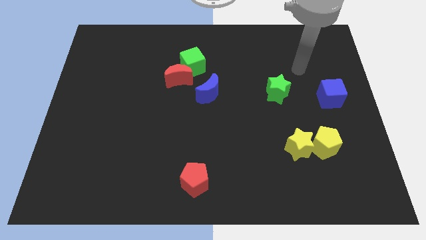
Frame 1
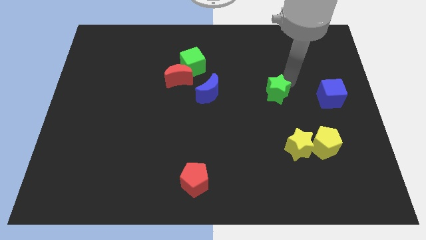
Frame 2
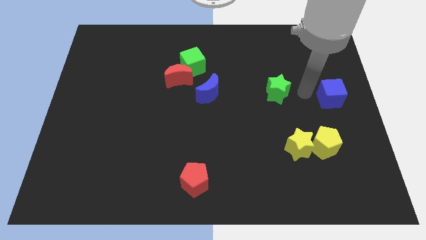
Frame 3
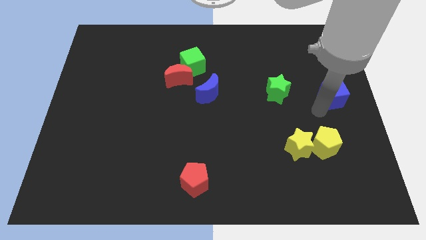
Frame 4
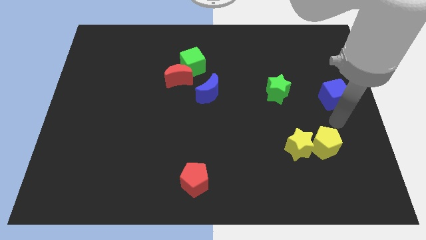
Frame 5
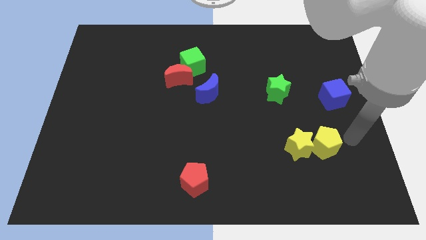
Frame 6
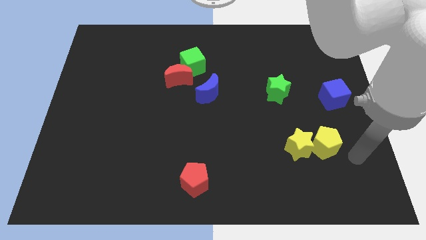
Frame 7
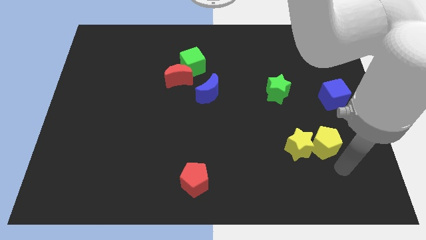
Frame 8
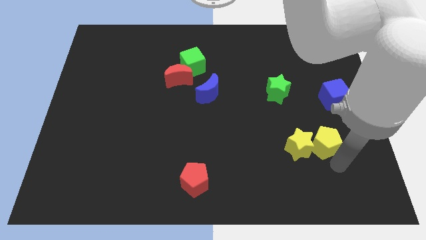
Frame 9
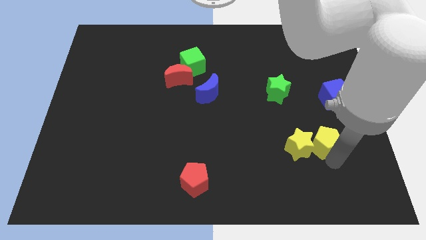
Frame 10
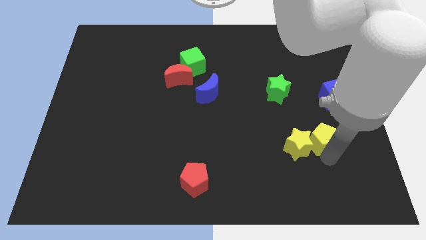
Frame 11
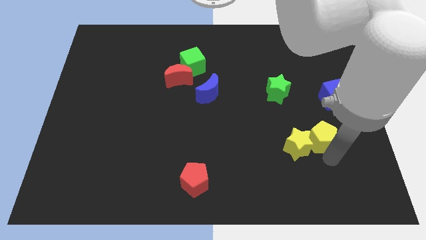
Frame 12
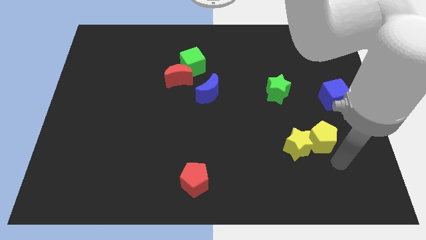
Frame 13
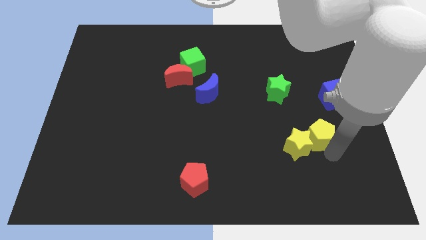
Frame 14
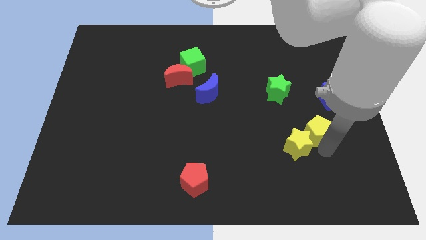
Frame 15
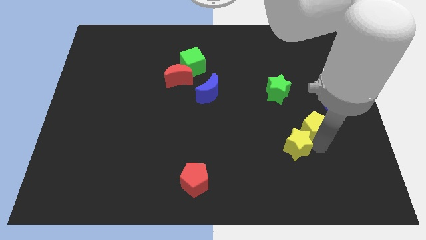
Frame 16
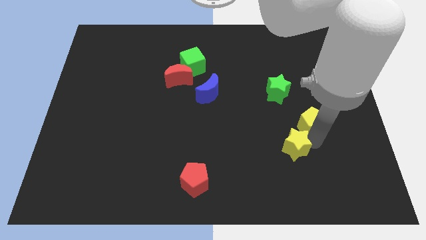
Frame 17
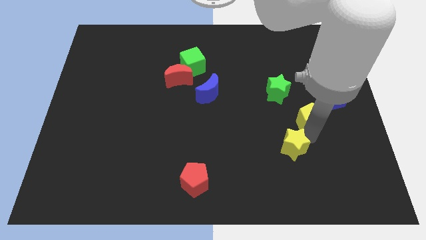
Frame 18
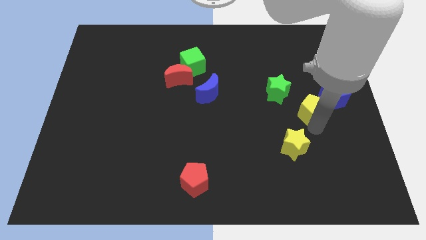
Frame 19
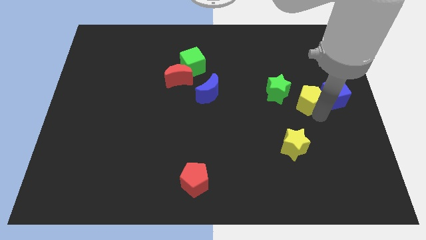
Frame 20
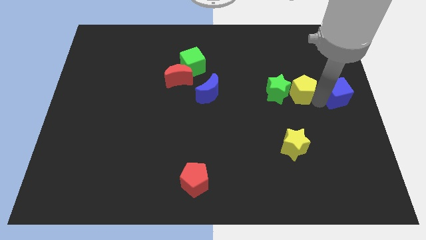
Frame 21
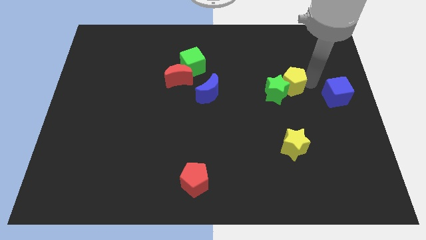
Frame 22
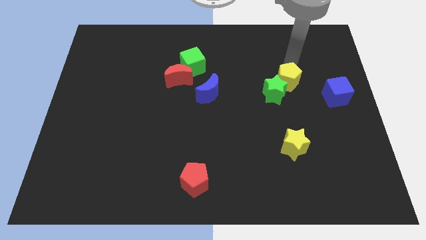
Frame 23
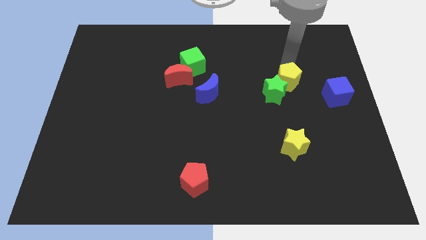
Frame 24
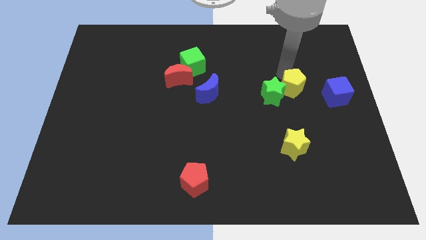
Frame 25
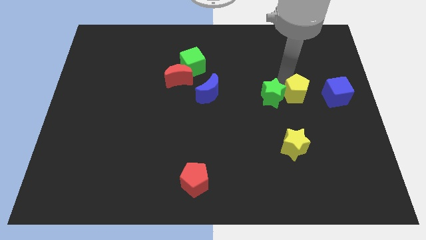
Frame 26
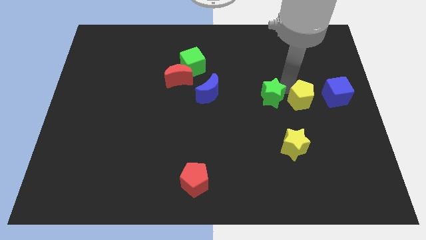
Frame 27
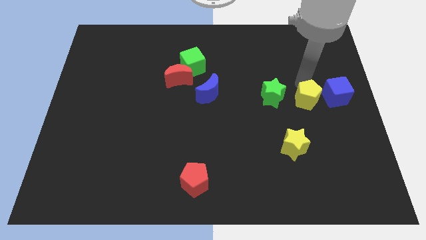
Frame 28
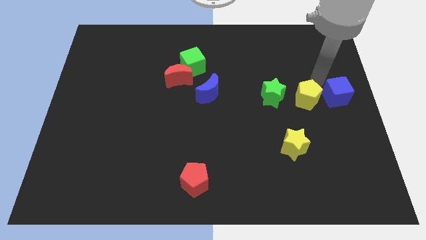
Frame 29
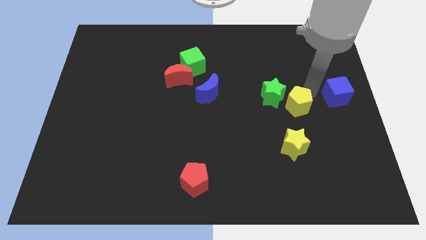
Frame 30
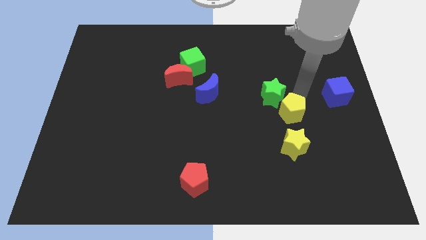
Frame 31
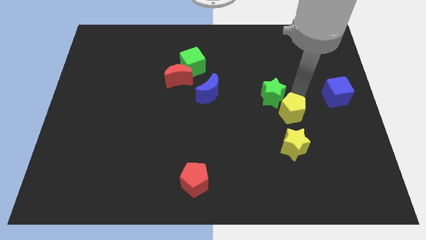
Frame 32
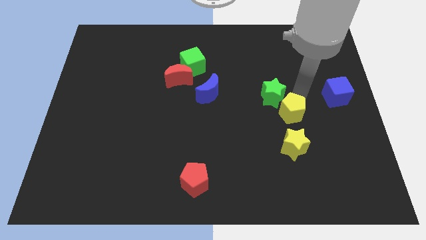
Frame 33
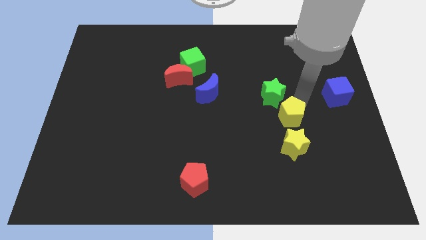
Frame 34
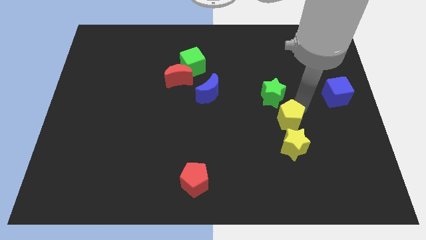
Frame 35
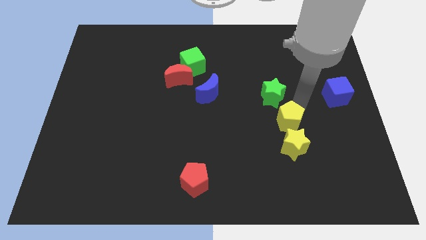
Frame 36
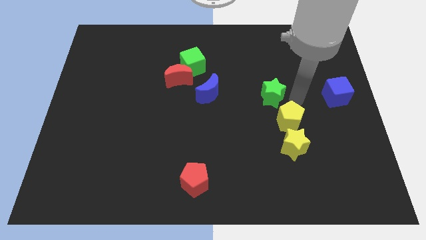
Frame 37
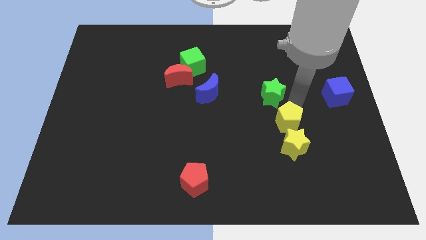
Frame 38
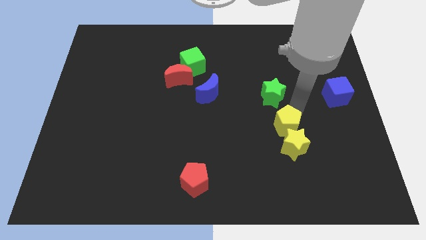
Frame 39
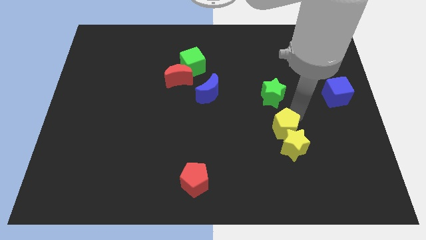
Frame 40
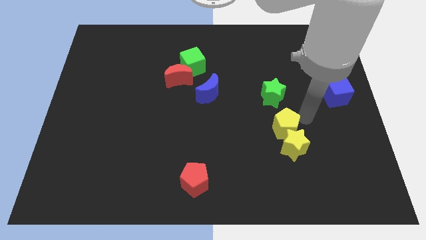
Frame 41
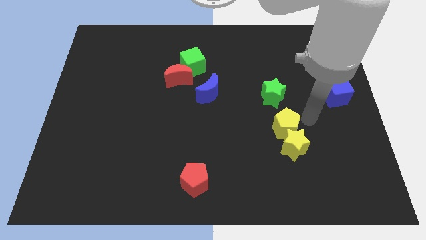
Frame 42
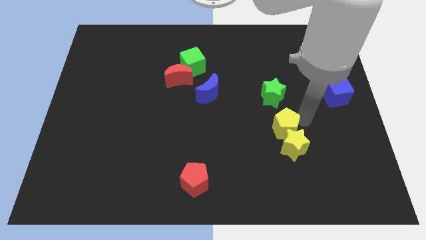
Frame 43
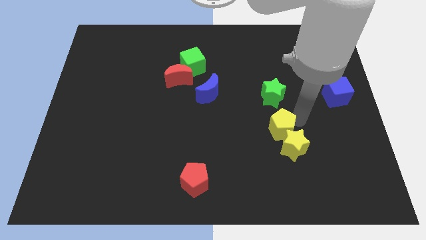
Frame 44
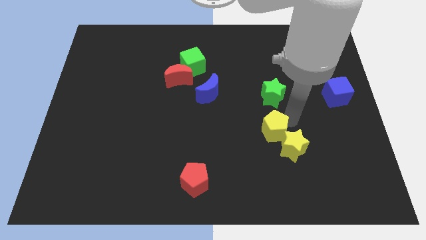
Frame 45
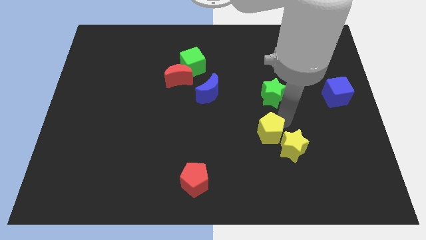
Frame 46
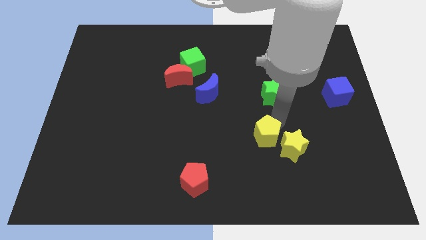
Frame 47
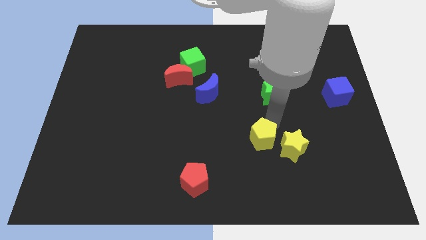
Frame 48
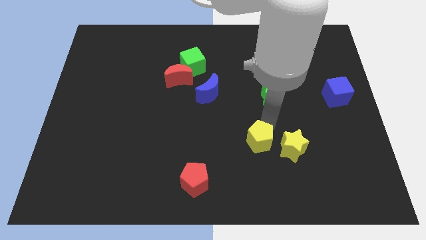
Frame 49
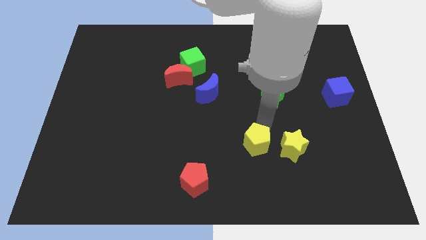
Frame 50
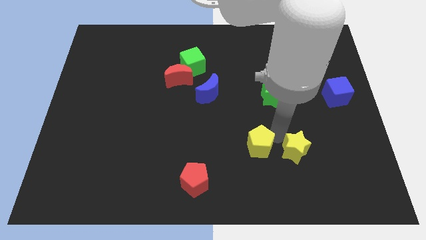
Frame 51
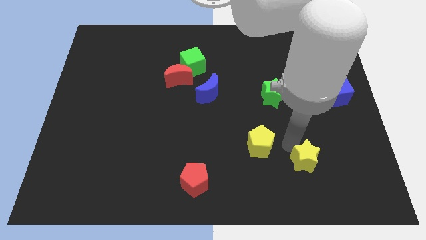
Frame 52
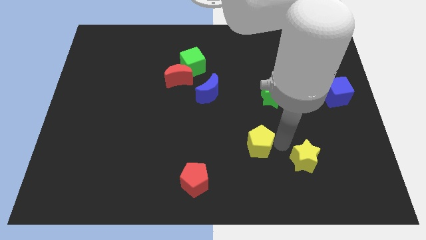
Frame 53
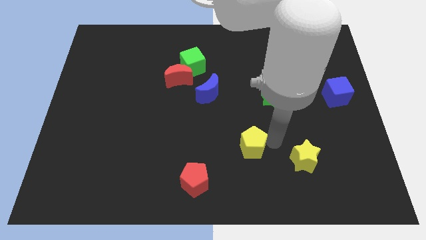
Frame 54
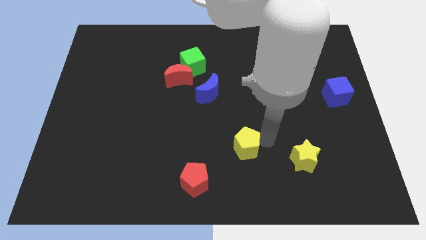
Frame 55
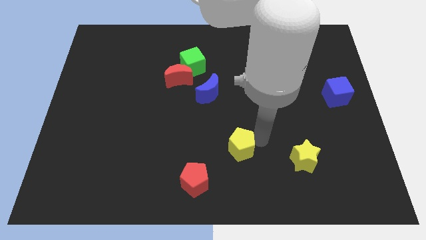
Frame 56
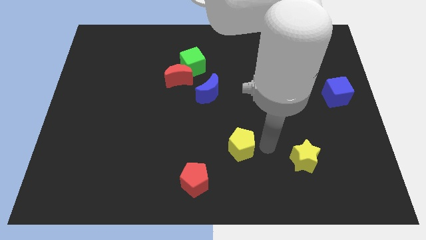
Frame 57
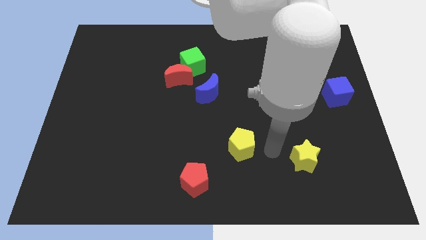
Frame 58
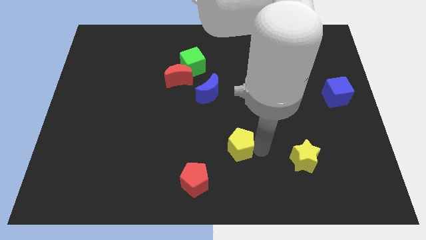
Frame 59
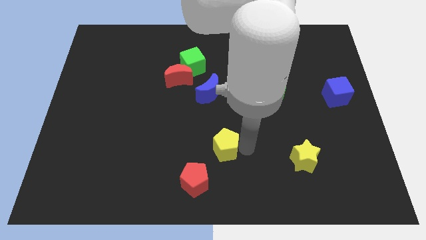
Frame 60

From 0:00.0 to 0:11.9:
push the yellow pentagon to the left

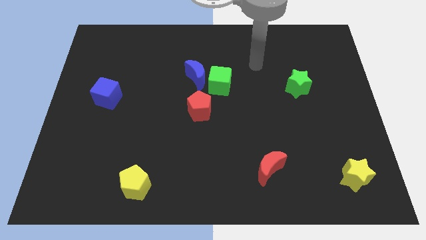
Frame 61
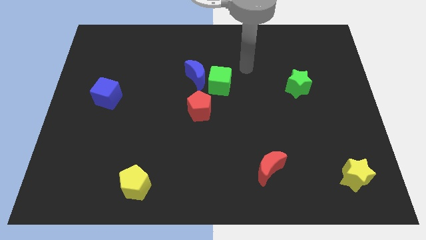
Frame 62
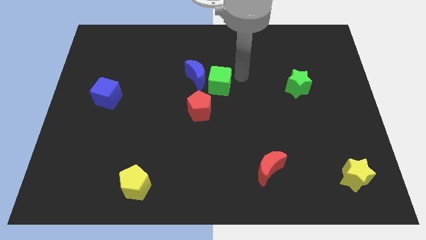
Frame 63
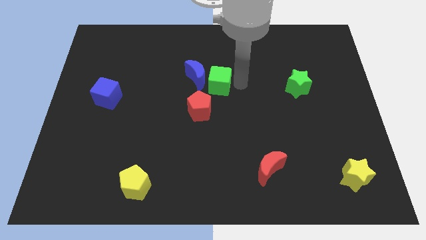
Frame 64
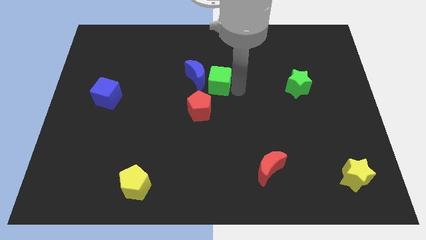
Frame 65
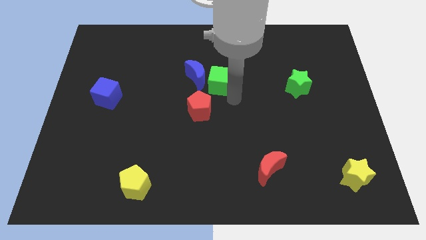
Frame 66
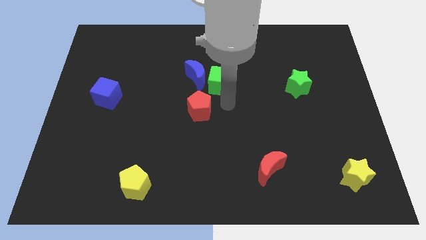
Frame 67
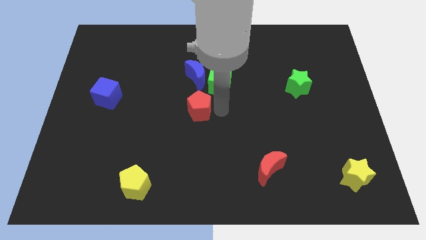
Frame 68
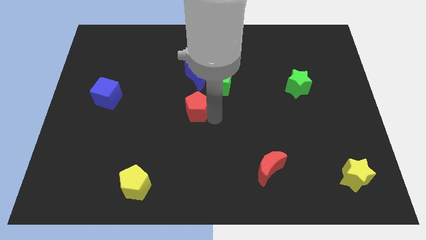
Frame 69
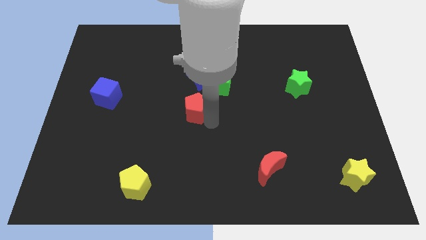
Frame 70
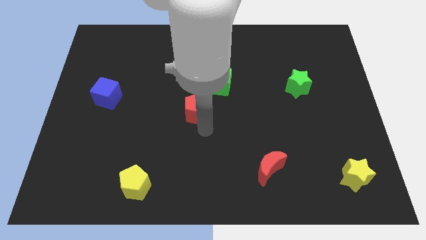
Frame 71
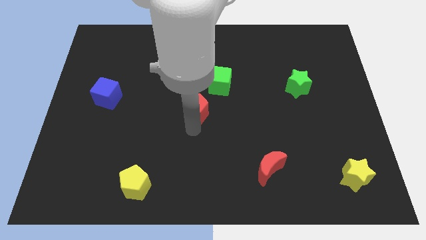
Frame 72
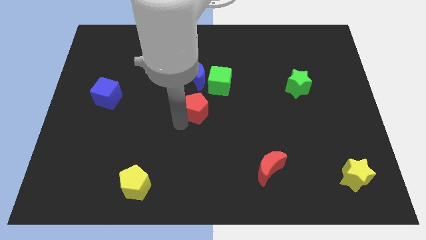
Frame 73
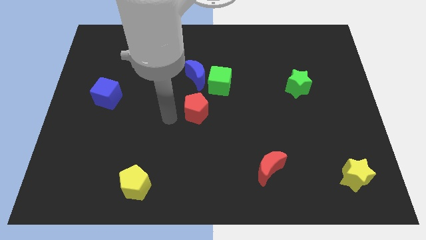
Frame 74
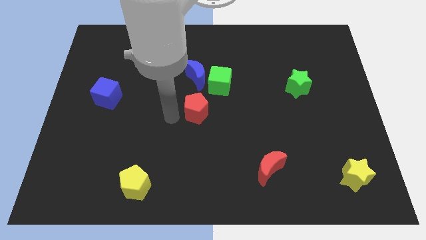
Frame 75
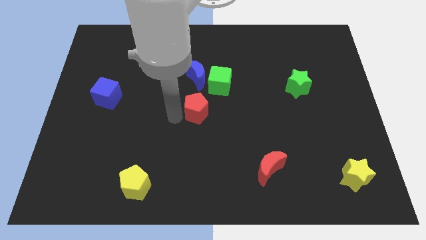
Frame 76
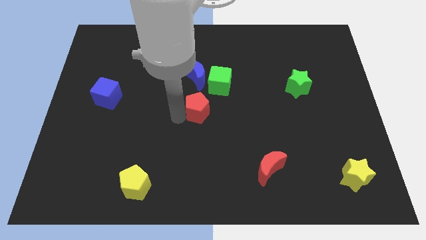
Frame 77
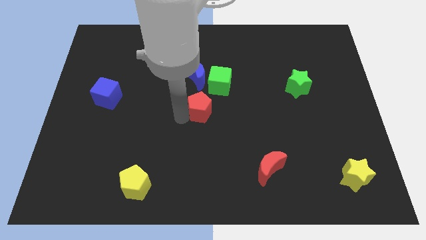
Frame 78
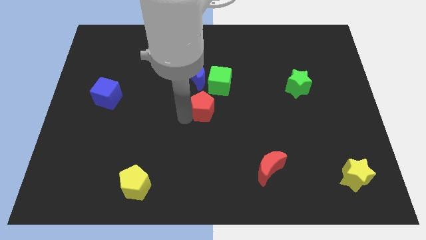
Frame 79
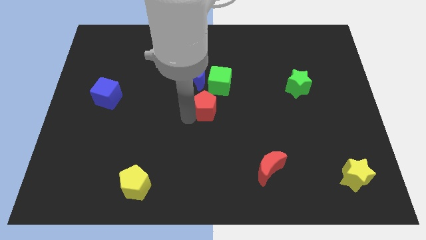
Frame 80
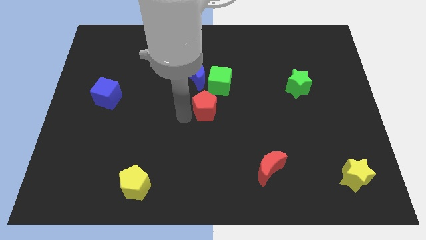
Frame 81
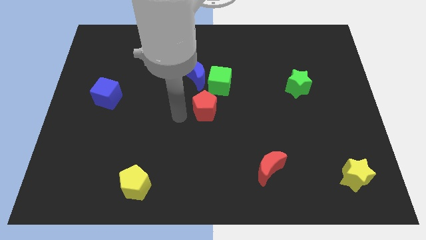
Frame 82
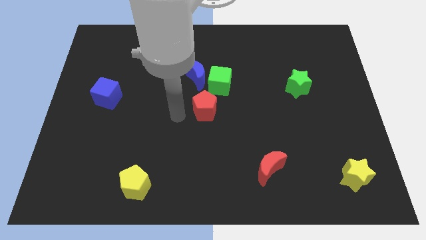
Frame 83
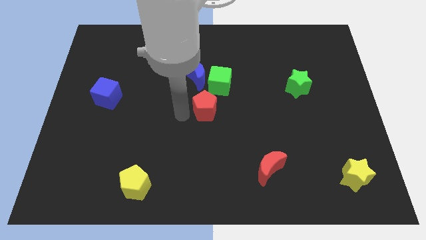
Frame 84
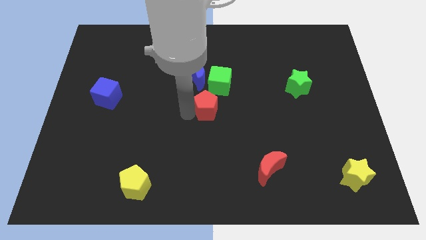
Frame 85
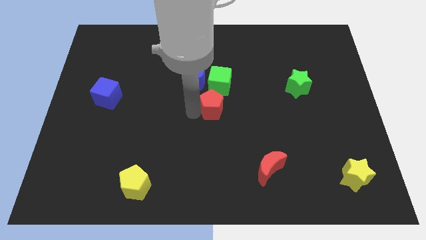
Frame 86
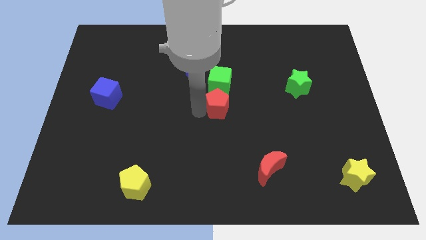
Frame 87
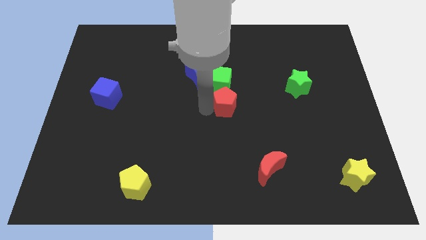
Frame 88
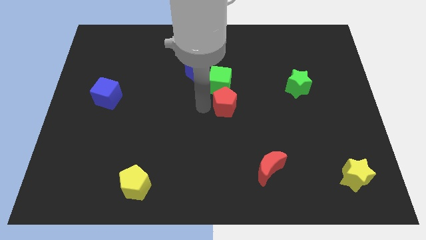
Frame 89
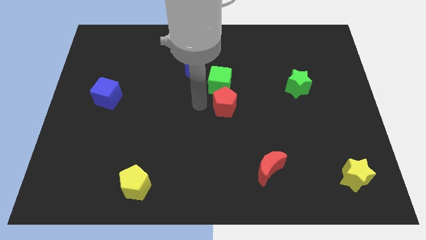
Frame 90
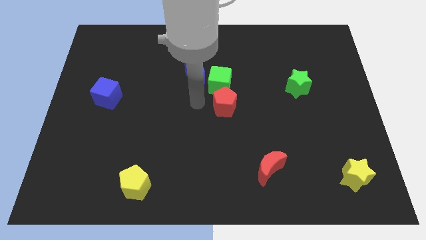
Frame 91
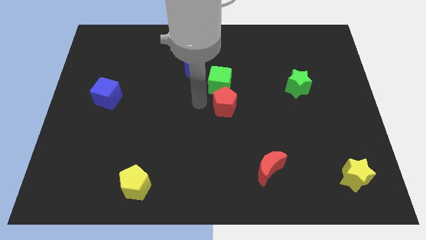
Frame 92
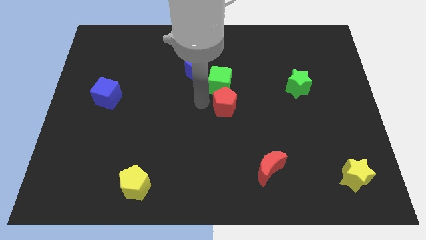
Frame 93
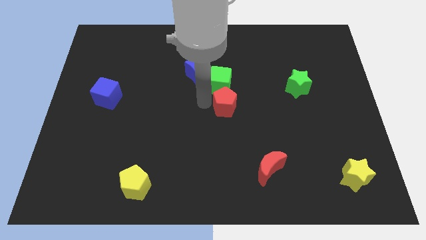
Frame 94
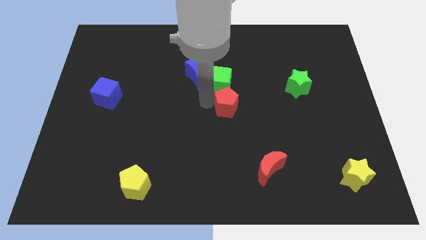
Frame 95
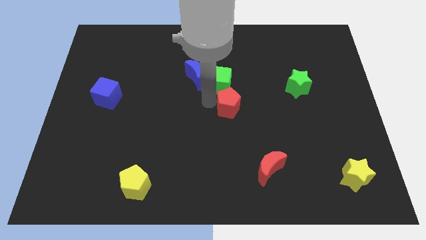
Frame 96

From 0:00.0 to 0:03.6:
slide the red pentagon right a little
